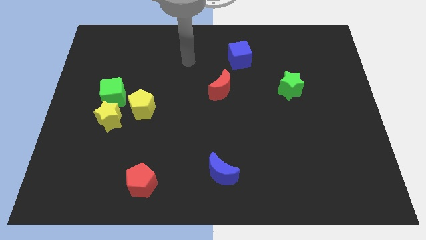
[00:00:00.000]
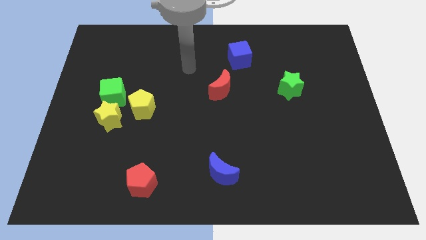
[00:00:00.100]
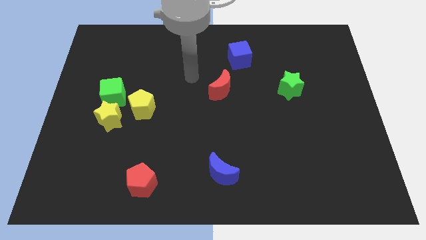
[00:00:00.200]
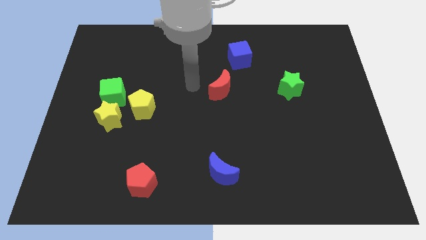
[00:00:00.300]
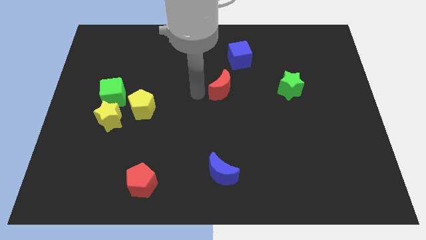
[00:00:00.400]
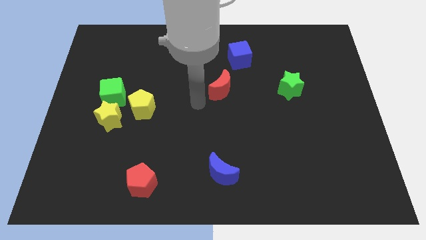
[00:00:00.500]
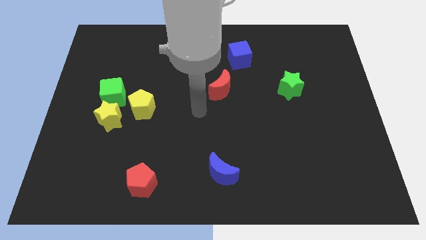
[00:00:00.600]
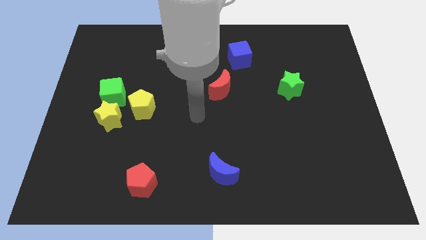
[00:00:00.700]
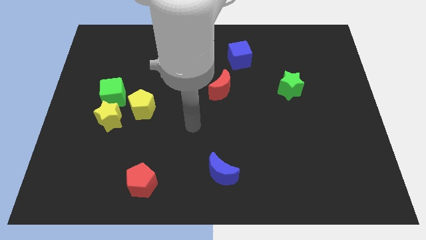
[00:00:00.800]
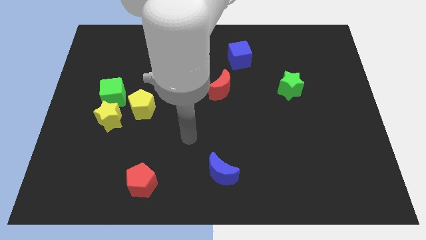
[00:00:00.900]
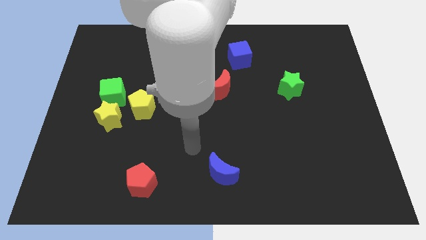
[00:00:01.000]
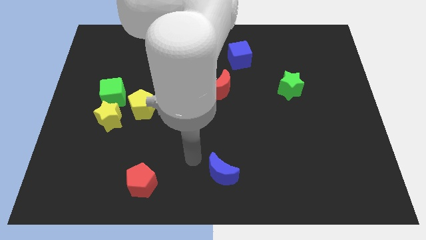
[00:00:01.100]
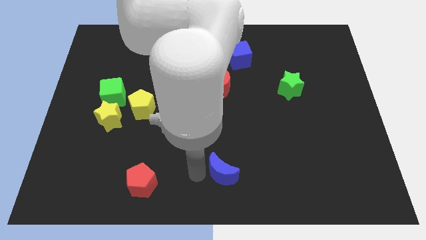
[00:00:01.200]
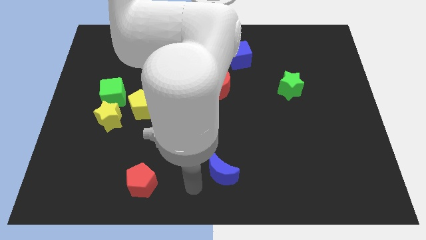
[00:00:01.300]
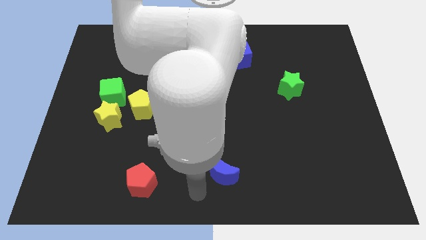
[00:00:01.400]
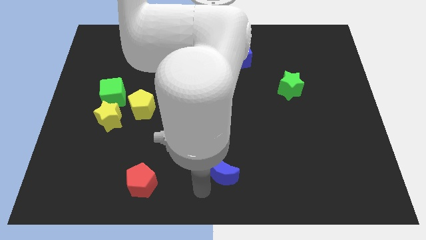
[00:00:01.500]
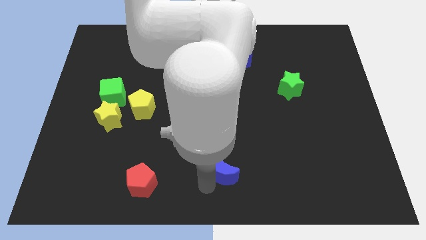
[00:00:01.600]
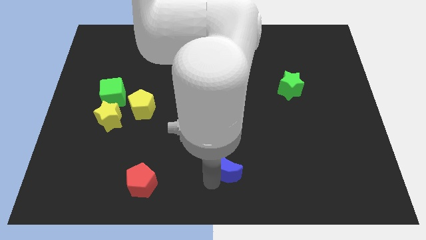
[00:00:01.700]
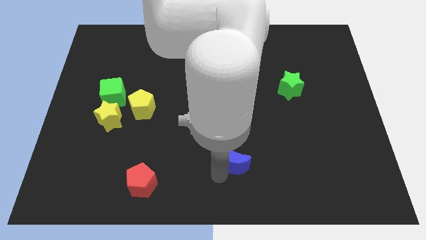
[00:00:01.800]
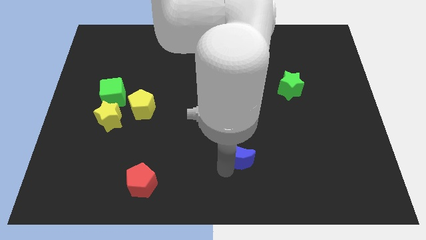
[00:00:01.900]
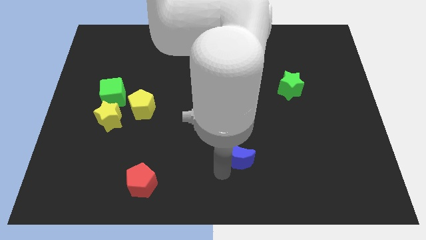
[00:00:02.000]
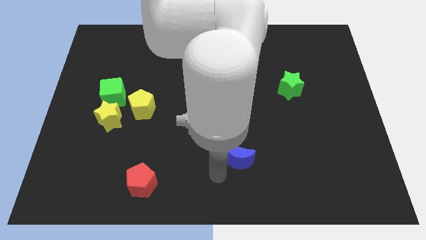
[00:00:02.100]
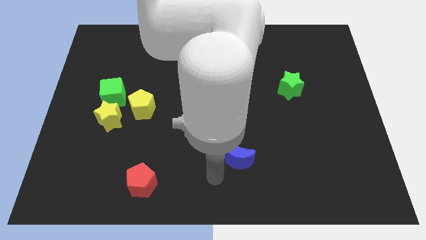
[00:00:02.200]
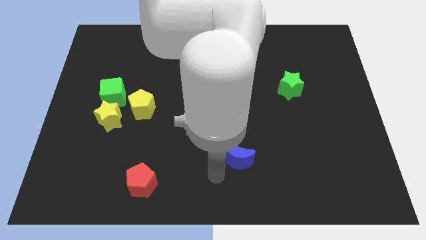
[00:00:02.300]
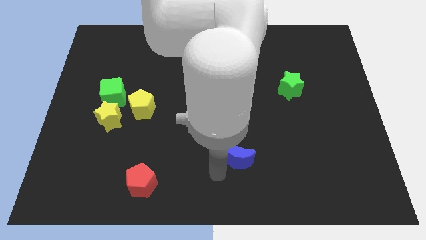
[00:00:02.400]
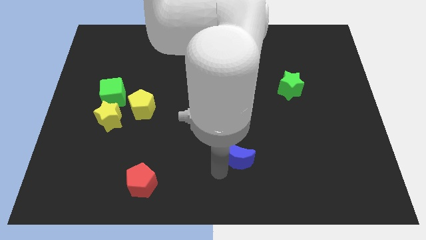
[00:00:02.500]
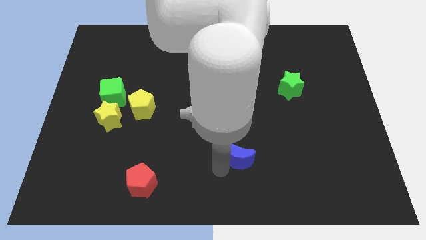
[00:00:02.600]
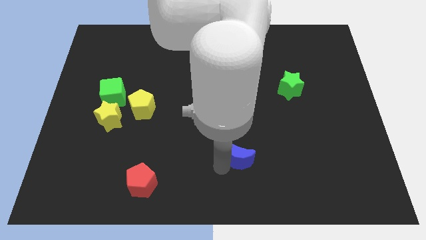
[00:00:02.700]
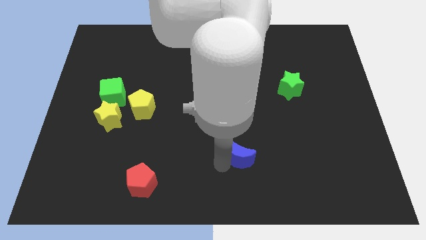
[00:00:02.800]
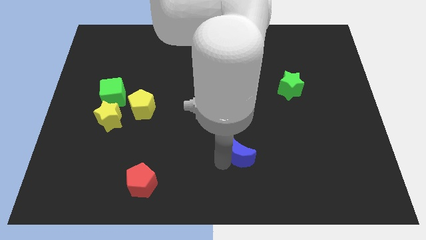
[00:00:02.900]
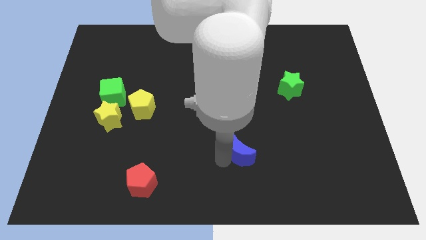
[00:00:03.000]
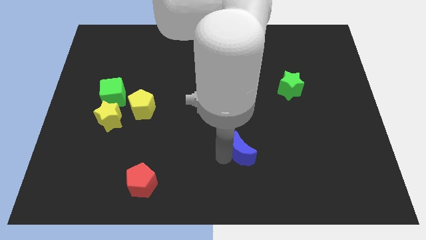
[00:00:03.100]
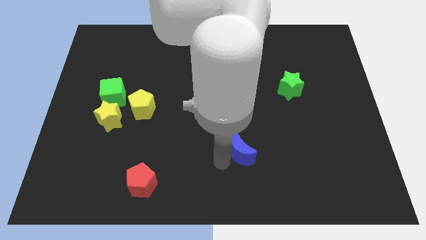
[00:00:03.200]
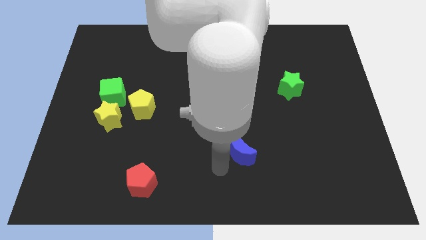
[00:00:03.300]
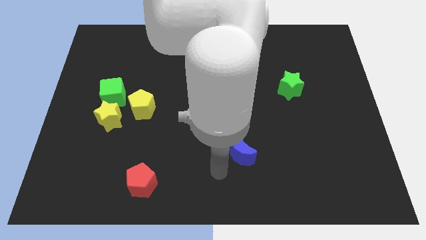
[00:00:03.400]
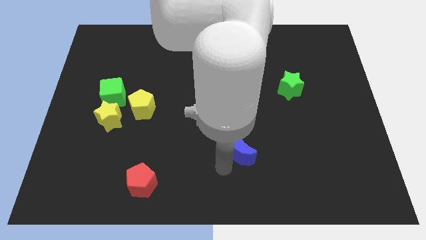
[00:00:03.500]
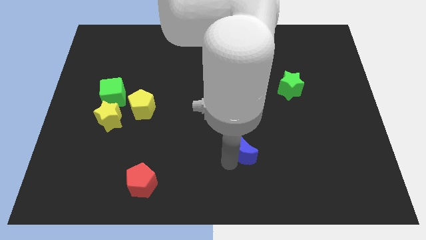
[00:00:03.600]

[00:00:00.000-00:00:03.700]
push the blue moon upwards and to the right a little

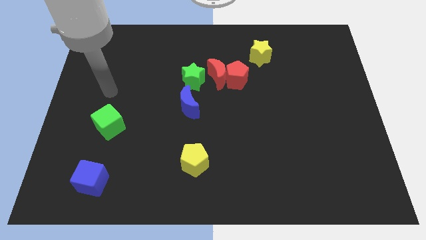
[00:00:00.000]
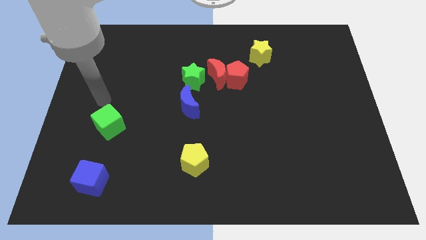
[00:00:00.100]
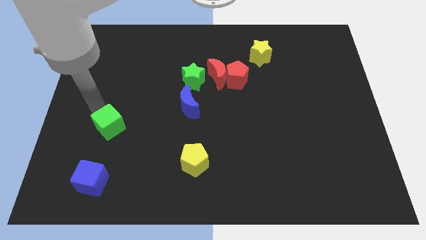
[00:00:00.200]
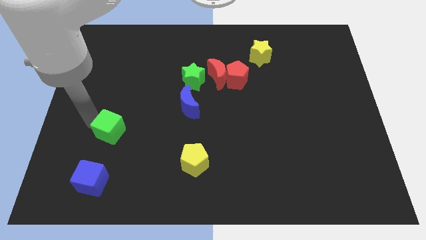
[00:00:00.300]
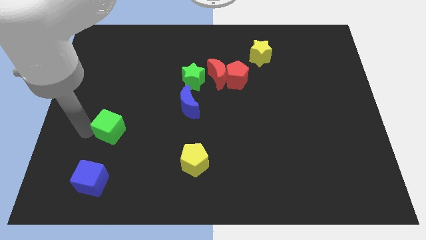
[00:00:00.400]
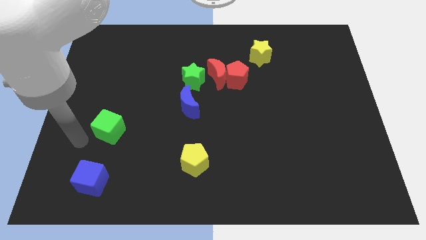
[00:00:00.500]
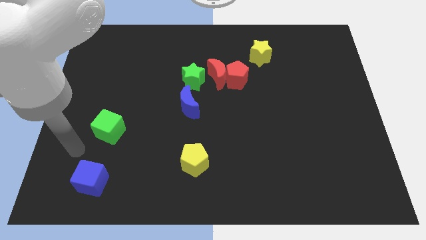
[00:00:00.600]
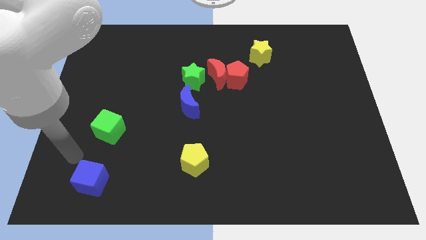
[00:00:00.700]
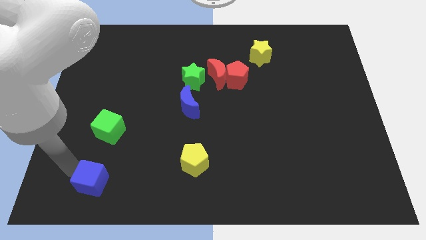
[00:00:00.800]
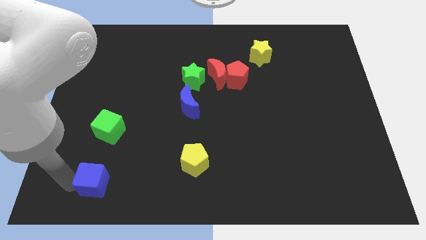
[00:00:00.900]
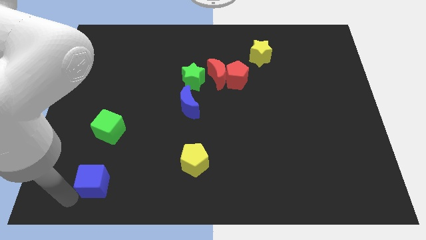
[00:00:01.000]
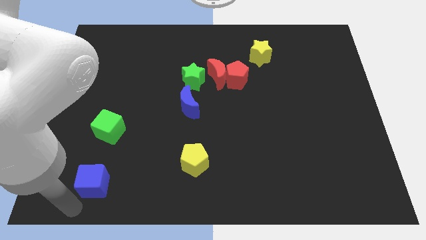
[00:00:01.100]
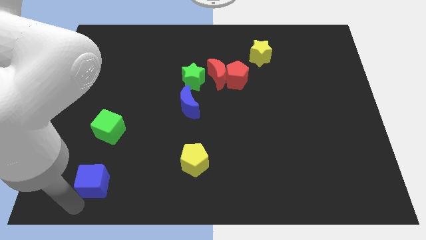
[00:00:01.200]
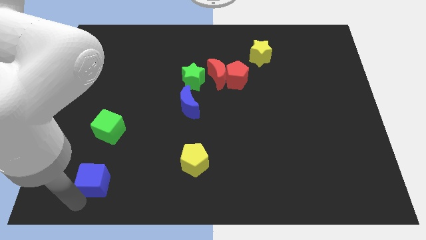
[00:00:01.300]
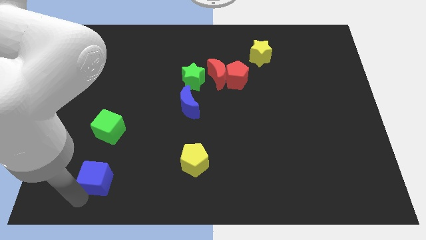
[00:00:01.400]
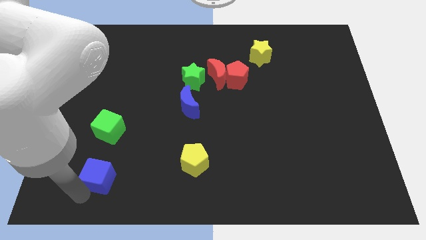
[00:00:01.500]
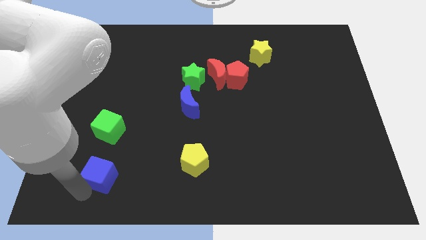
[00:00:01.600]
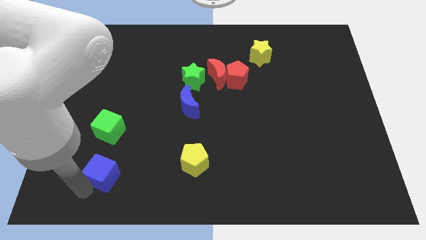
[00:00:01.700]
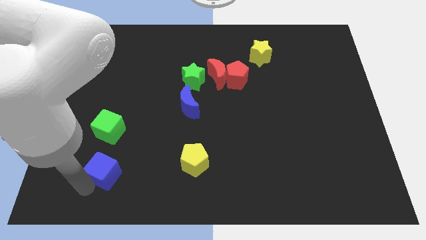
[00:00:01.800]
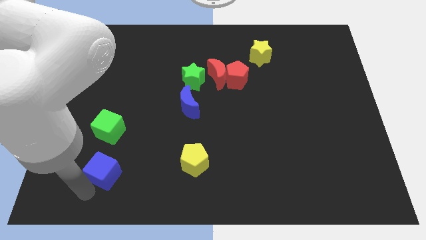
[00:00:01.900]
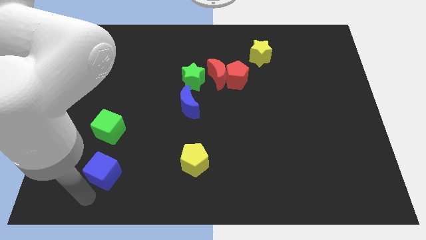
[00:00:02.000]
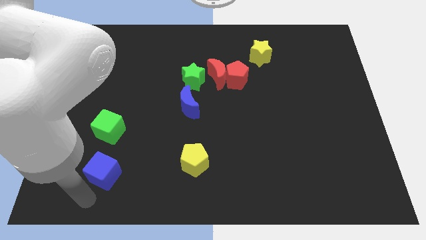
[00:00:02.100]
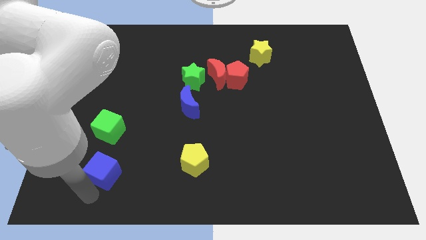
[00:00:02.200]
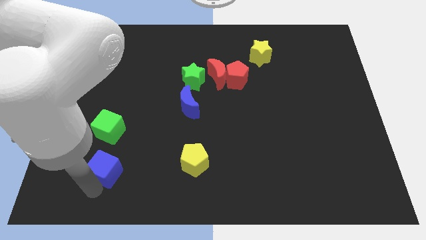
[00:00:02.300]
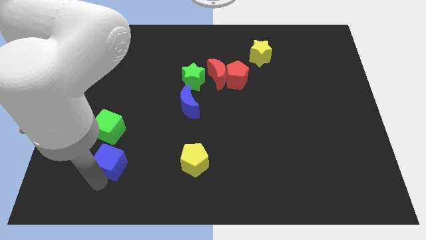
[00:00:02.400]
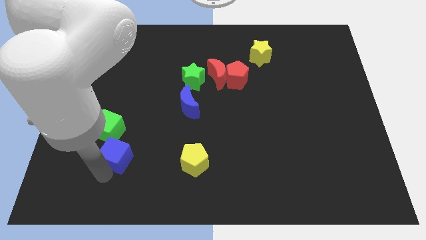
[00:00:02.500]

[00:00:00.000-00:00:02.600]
move the blue cube a little bit upwards and then to the right

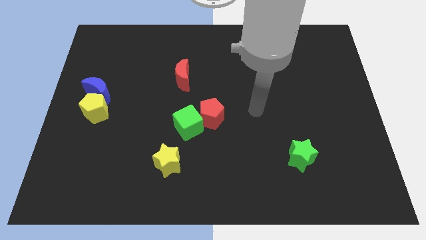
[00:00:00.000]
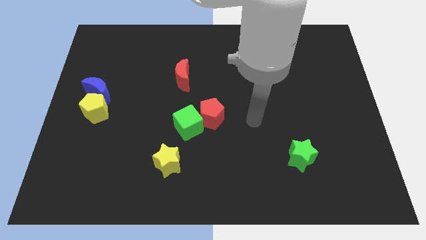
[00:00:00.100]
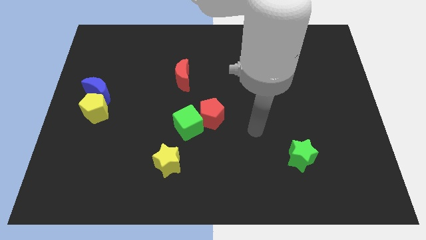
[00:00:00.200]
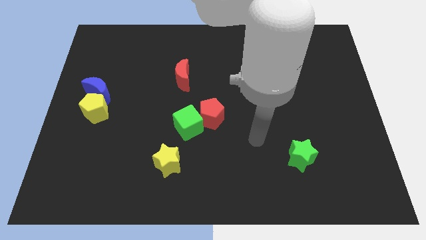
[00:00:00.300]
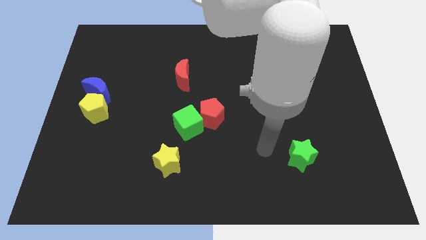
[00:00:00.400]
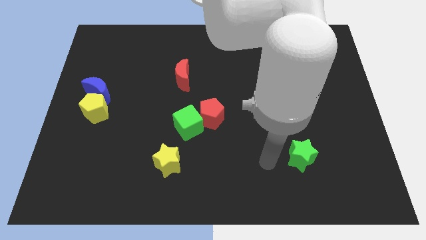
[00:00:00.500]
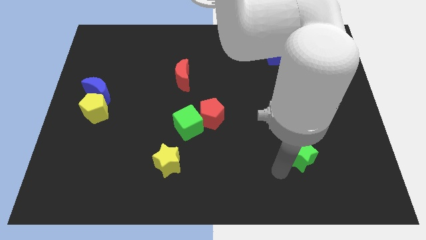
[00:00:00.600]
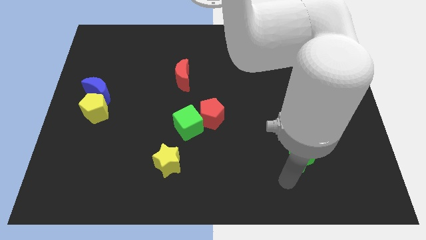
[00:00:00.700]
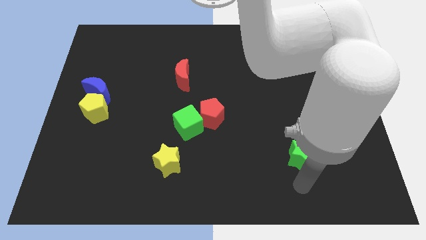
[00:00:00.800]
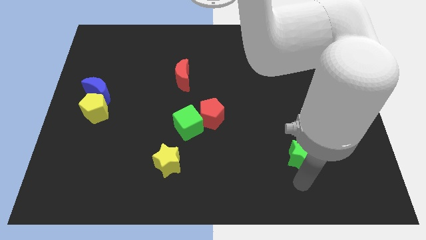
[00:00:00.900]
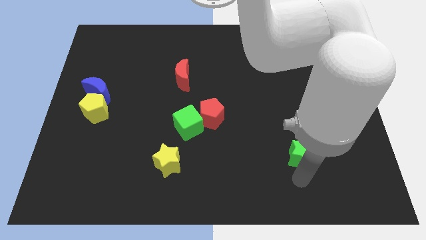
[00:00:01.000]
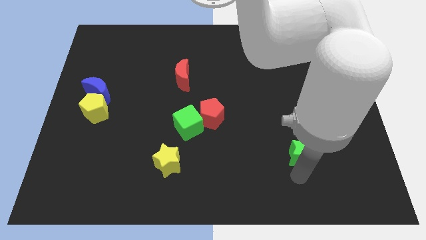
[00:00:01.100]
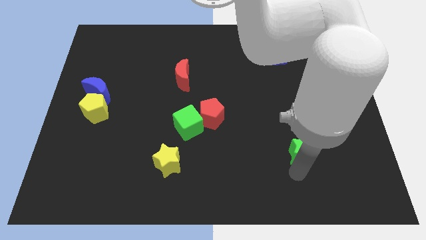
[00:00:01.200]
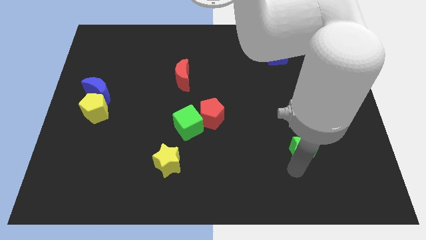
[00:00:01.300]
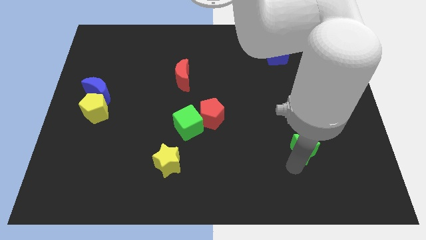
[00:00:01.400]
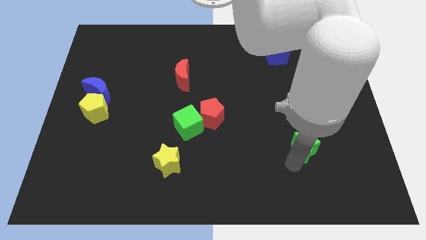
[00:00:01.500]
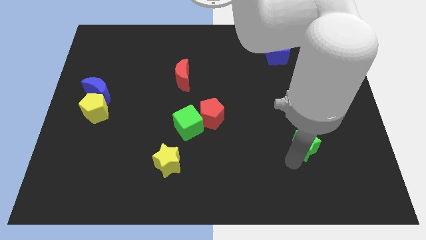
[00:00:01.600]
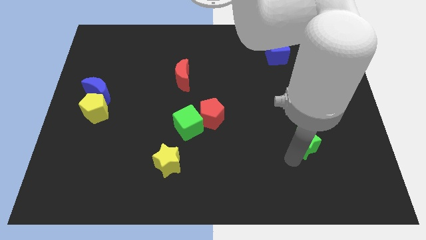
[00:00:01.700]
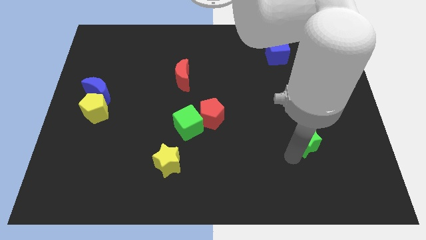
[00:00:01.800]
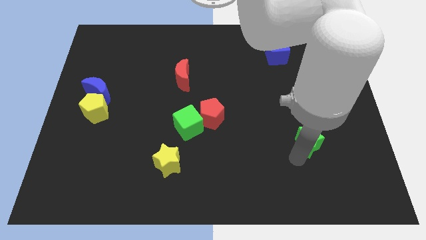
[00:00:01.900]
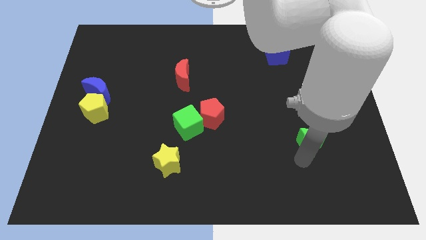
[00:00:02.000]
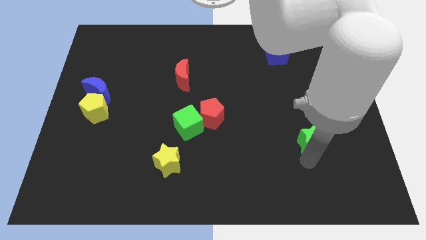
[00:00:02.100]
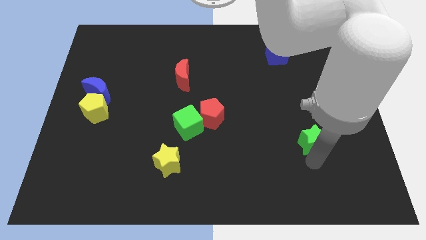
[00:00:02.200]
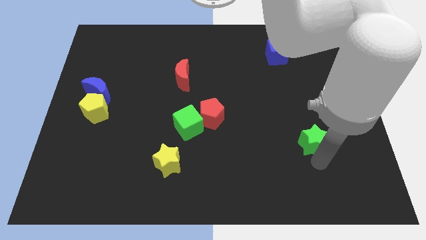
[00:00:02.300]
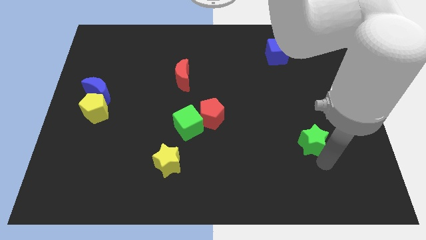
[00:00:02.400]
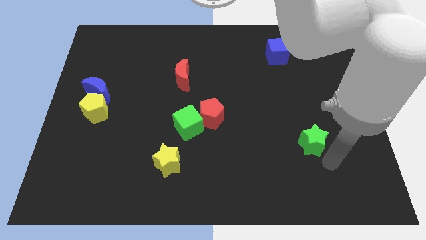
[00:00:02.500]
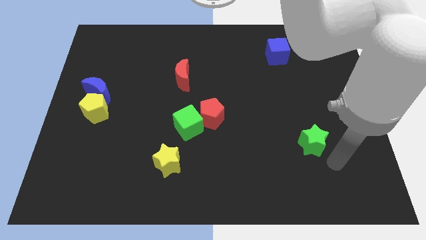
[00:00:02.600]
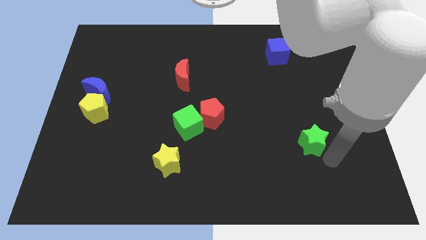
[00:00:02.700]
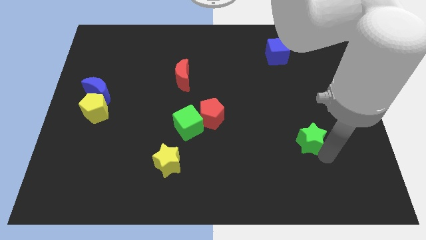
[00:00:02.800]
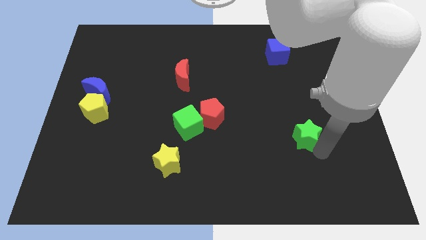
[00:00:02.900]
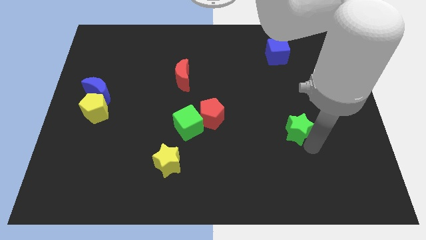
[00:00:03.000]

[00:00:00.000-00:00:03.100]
push the green star upwards a little
